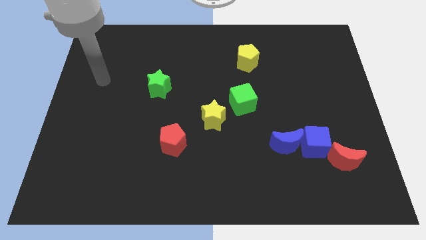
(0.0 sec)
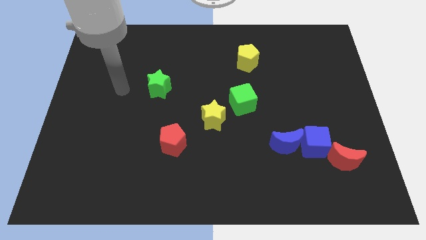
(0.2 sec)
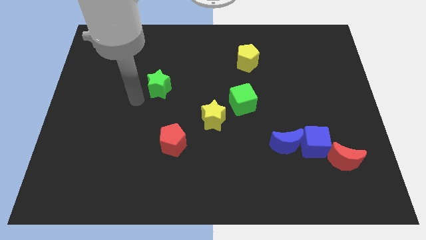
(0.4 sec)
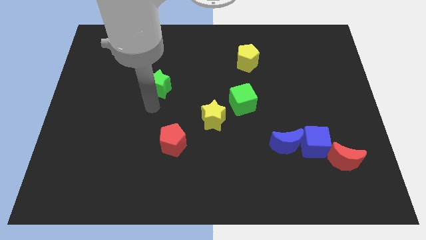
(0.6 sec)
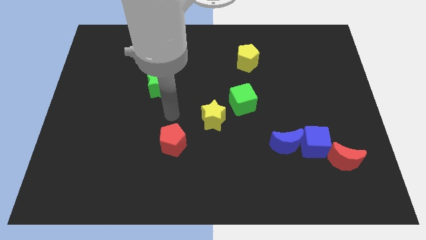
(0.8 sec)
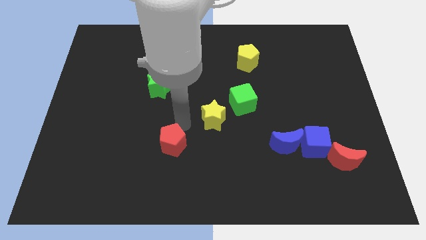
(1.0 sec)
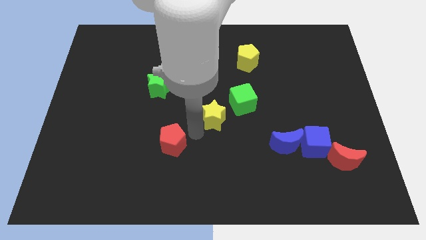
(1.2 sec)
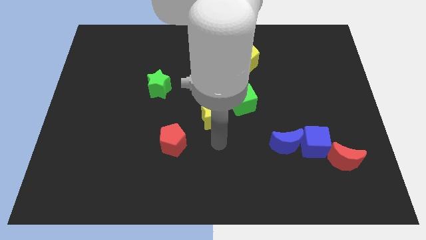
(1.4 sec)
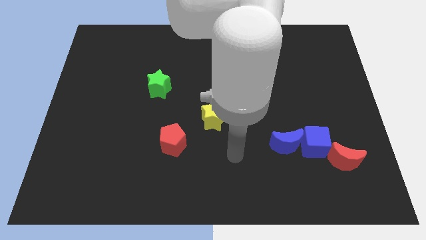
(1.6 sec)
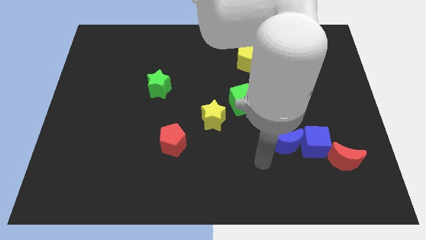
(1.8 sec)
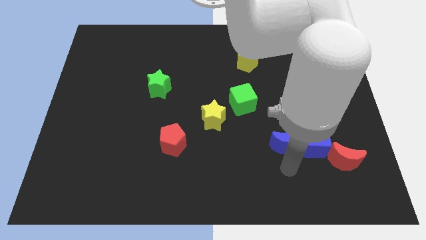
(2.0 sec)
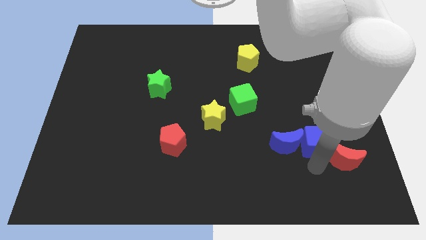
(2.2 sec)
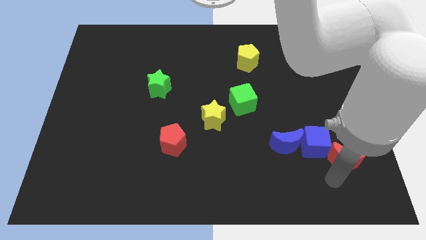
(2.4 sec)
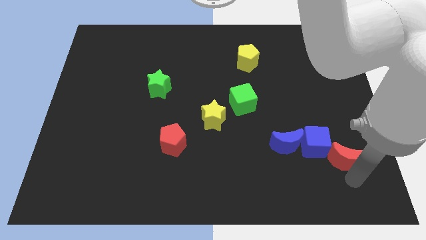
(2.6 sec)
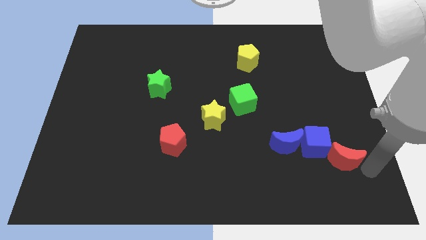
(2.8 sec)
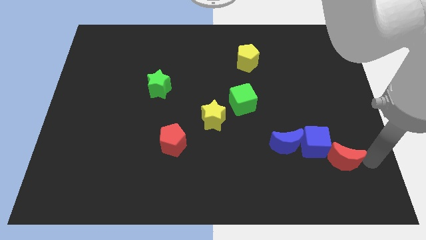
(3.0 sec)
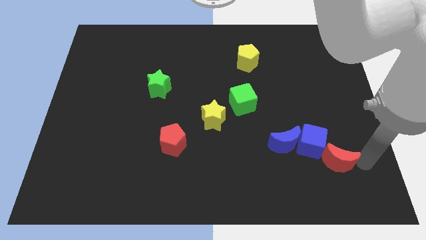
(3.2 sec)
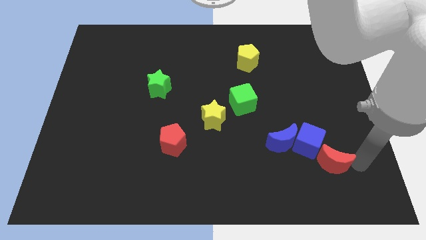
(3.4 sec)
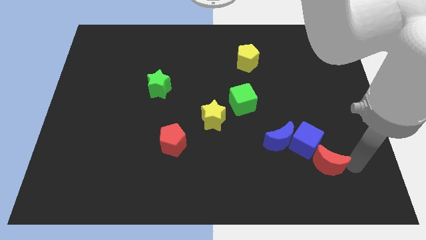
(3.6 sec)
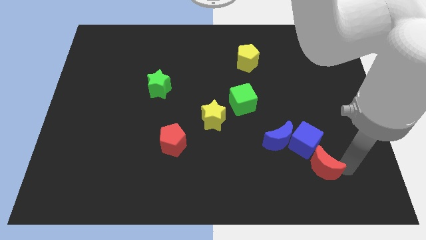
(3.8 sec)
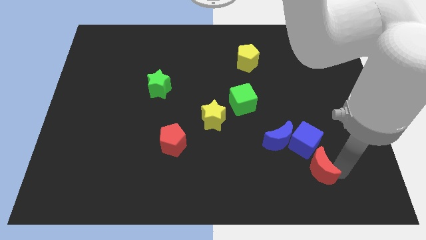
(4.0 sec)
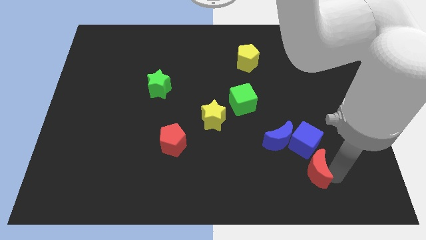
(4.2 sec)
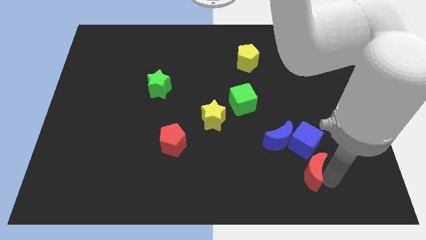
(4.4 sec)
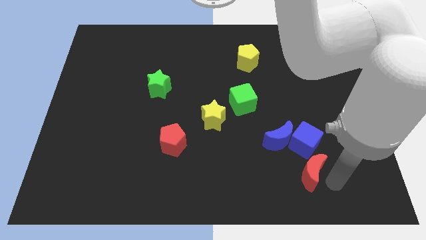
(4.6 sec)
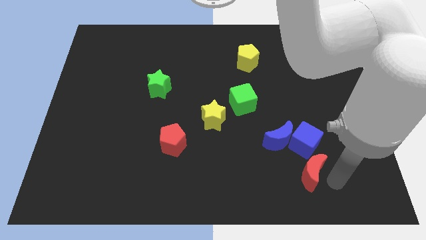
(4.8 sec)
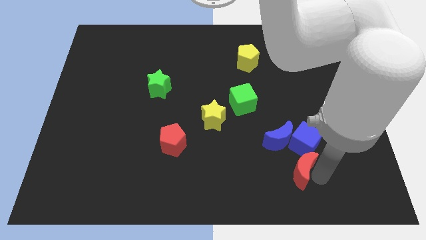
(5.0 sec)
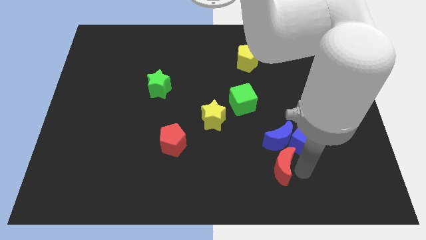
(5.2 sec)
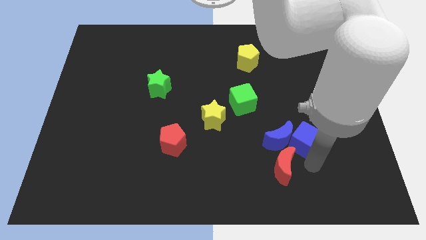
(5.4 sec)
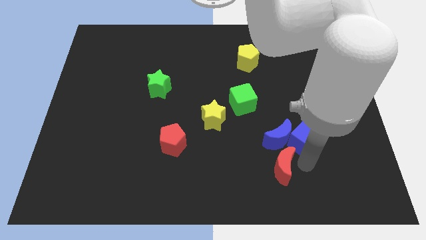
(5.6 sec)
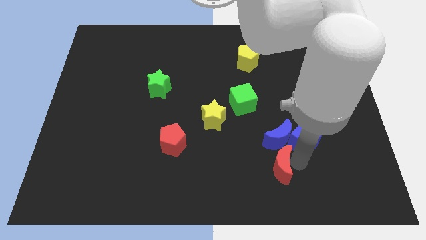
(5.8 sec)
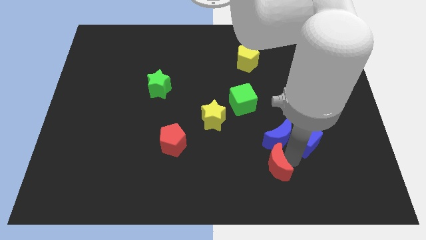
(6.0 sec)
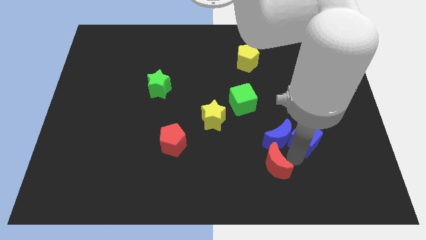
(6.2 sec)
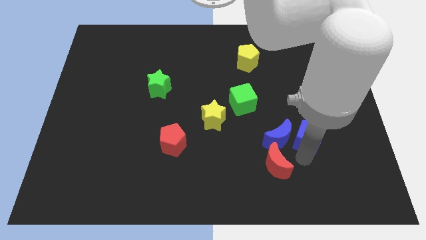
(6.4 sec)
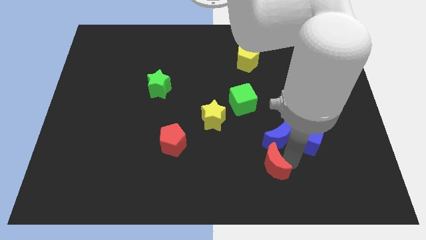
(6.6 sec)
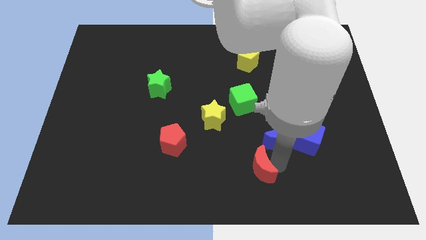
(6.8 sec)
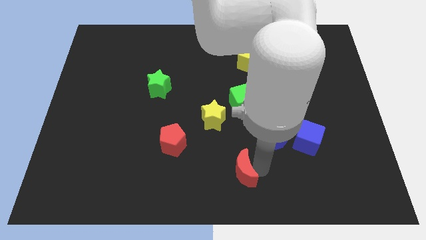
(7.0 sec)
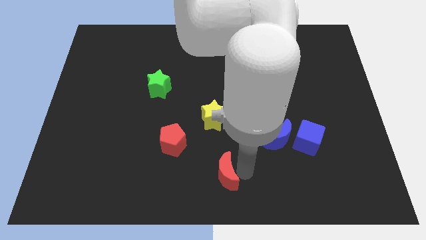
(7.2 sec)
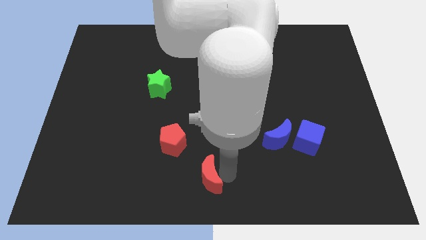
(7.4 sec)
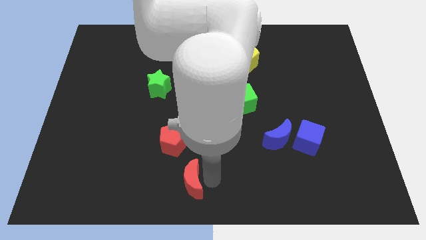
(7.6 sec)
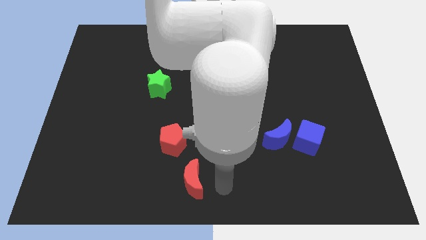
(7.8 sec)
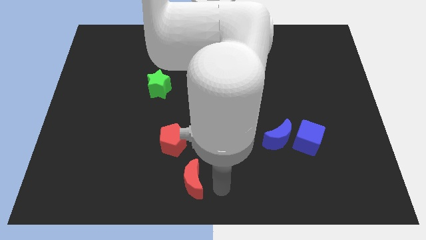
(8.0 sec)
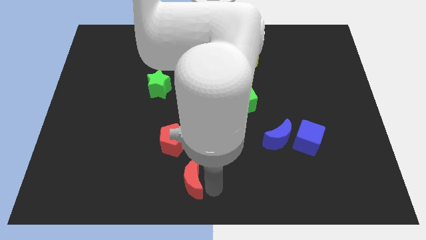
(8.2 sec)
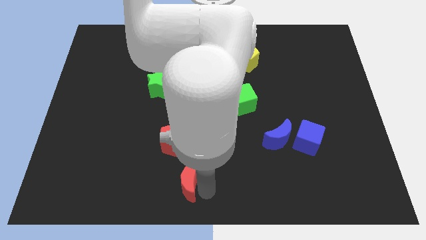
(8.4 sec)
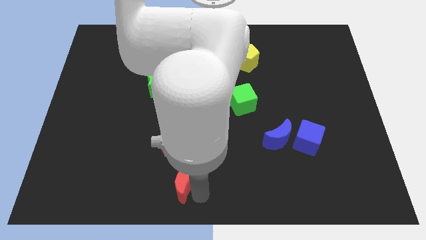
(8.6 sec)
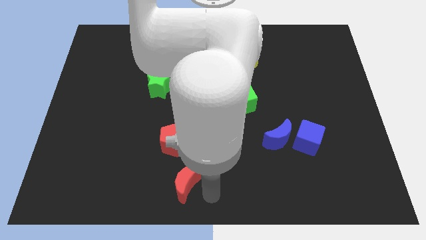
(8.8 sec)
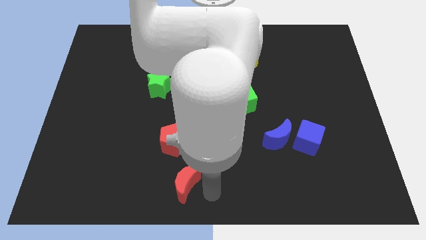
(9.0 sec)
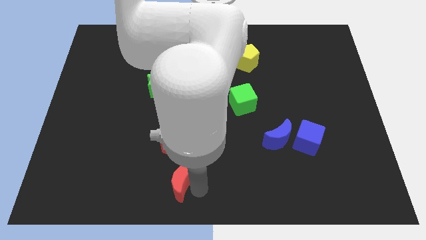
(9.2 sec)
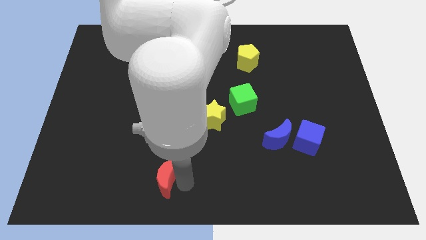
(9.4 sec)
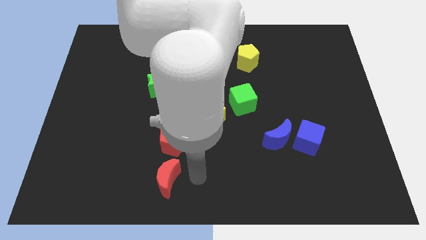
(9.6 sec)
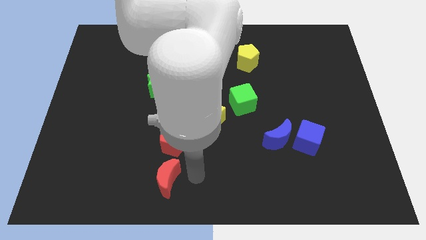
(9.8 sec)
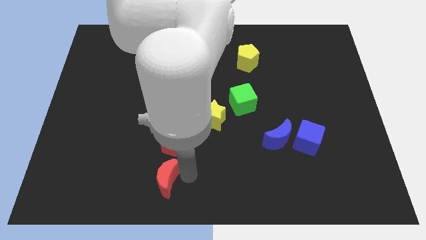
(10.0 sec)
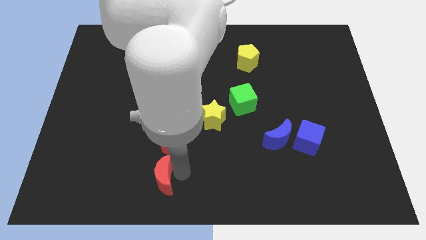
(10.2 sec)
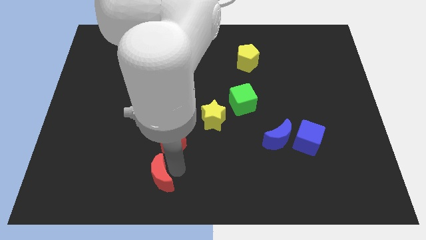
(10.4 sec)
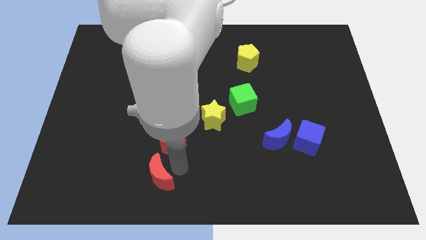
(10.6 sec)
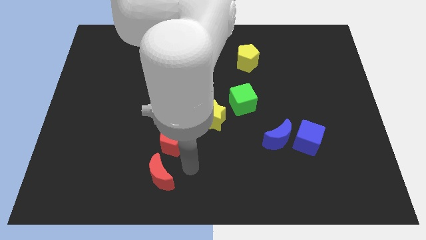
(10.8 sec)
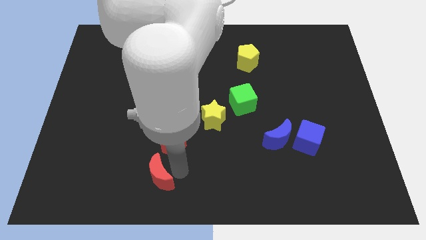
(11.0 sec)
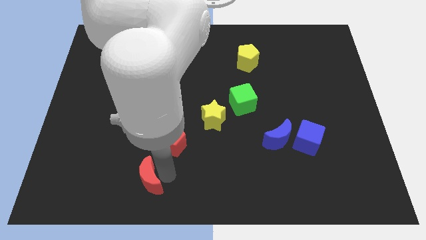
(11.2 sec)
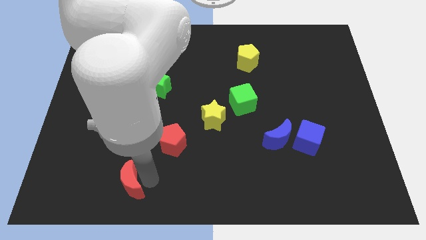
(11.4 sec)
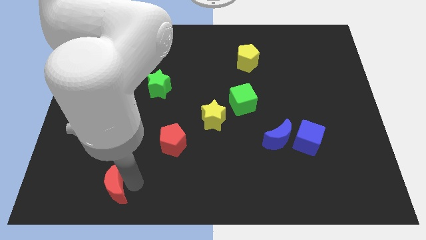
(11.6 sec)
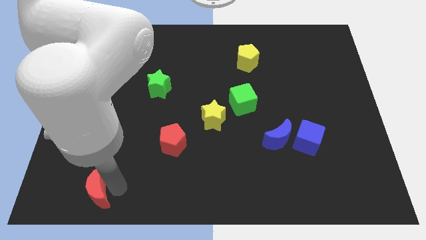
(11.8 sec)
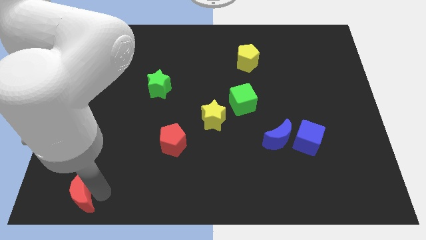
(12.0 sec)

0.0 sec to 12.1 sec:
push the red moon to the bottom left of the board
